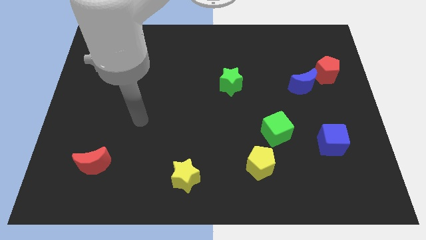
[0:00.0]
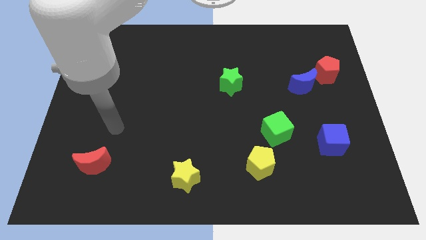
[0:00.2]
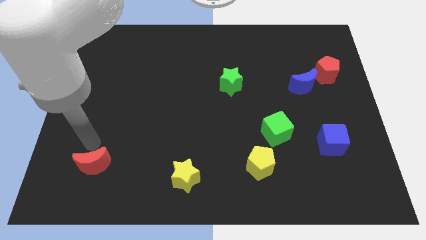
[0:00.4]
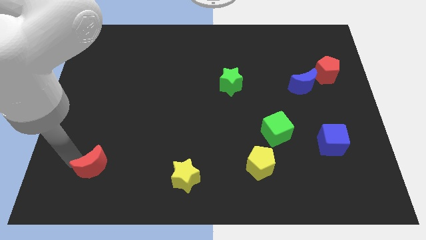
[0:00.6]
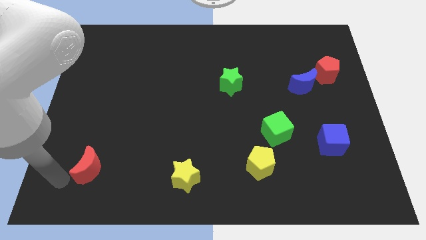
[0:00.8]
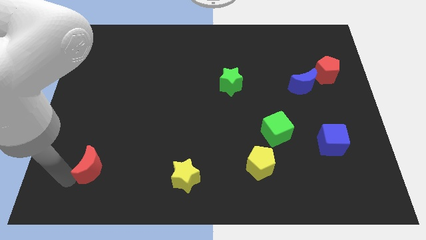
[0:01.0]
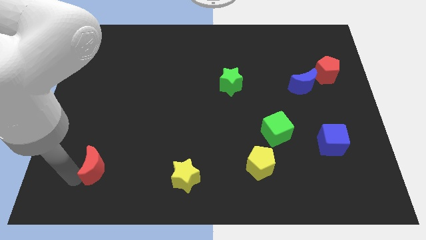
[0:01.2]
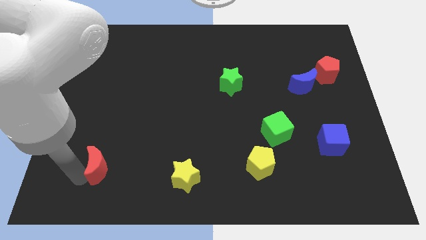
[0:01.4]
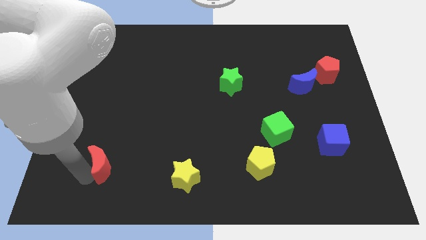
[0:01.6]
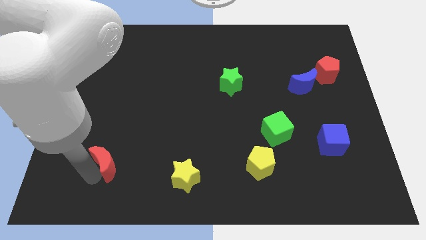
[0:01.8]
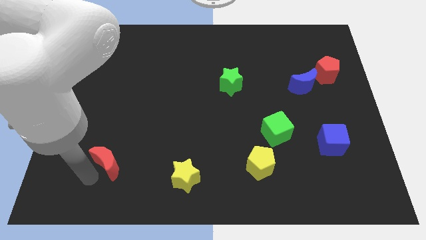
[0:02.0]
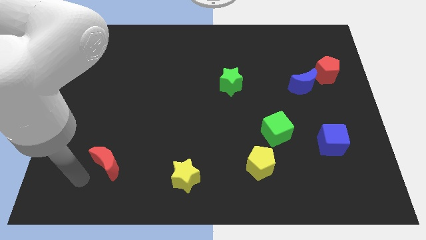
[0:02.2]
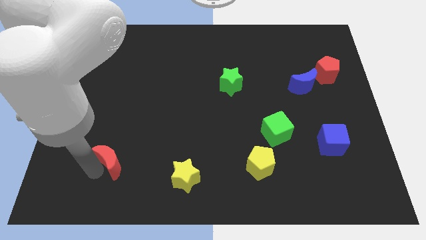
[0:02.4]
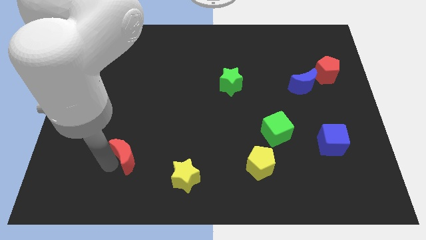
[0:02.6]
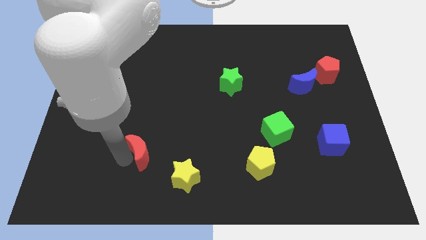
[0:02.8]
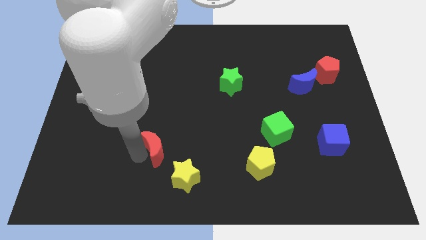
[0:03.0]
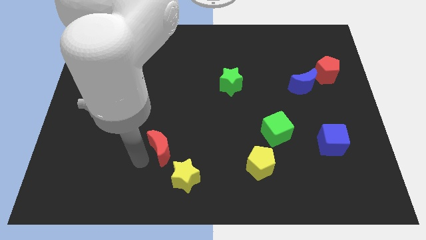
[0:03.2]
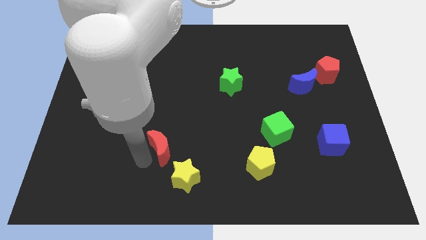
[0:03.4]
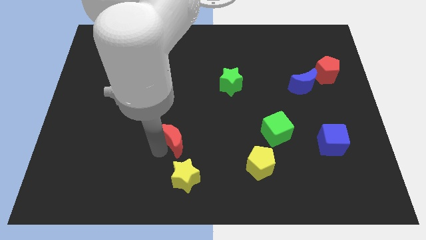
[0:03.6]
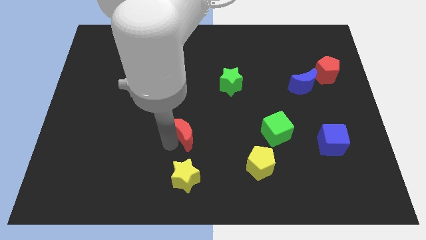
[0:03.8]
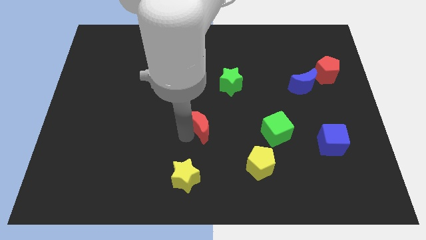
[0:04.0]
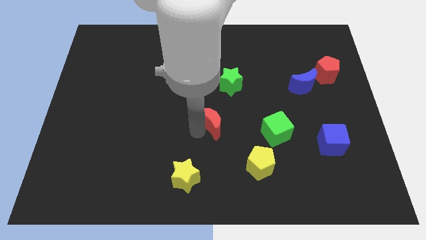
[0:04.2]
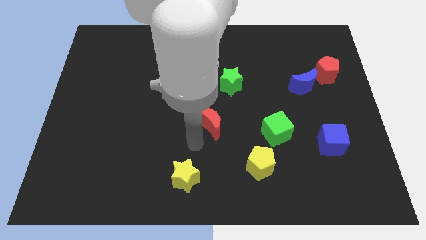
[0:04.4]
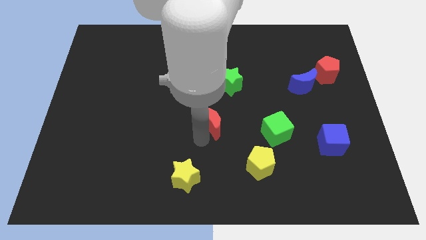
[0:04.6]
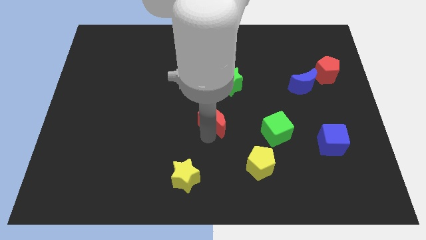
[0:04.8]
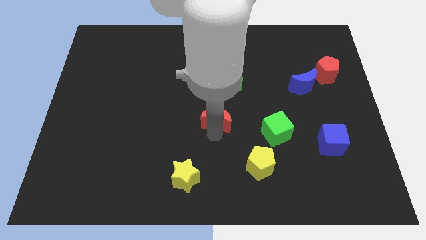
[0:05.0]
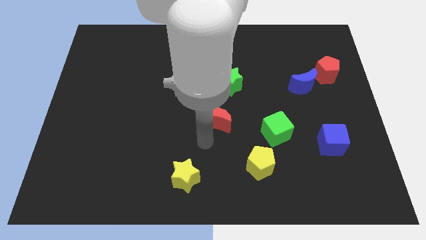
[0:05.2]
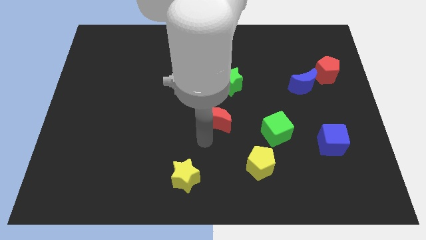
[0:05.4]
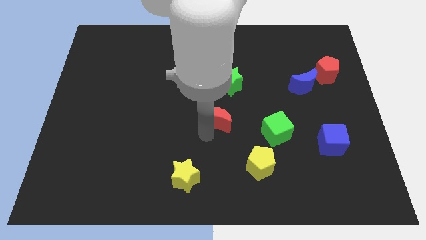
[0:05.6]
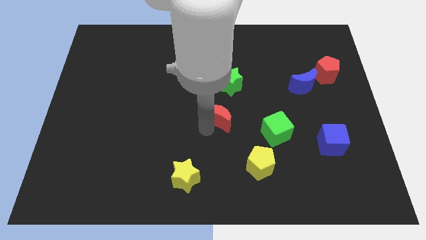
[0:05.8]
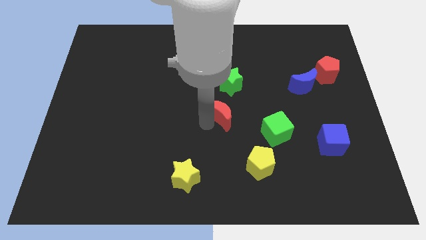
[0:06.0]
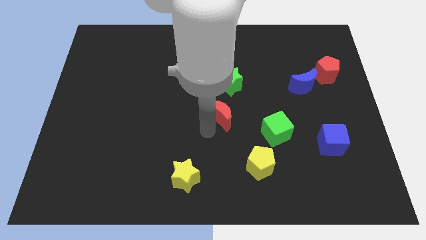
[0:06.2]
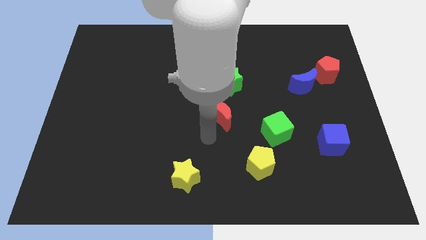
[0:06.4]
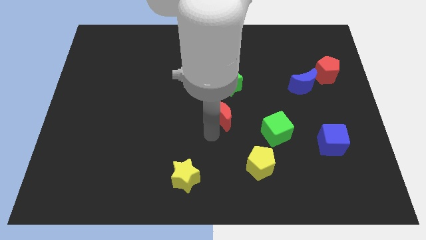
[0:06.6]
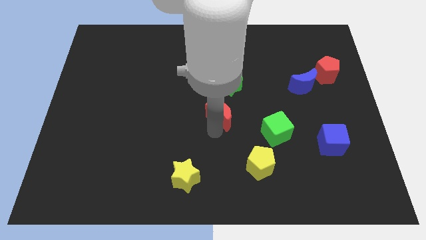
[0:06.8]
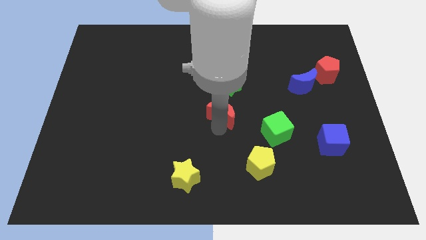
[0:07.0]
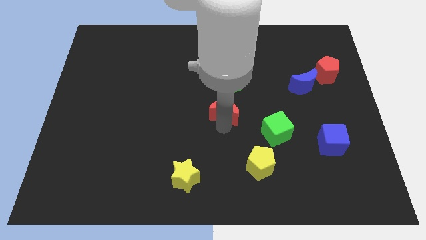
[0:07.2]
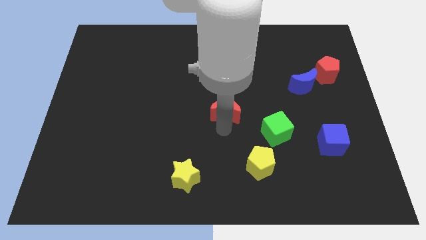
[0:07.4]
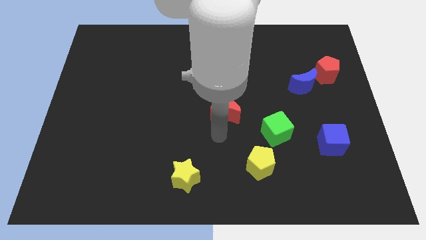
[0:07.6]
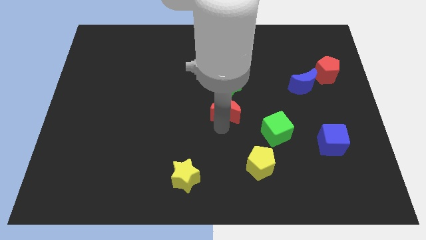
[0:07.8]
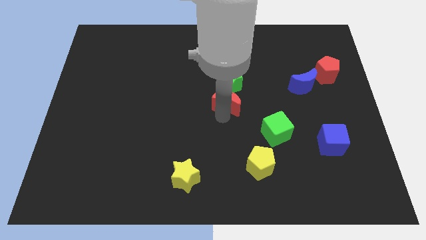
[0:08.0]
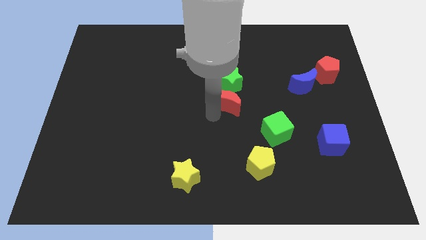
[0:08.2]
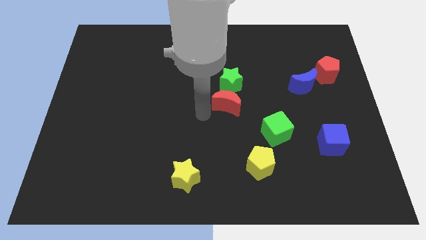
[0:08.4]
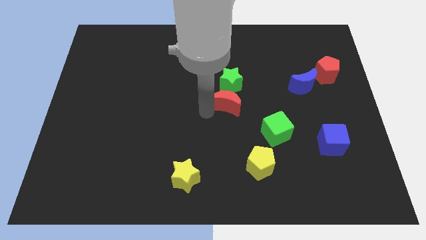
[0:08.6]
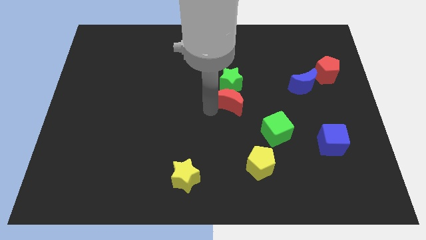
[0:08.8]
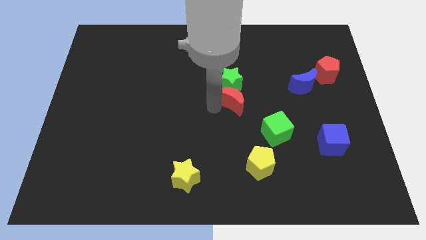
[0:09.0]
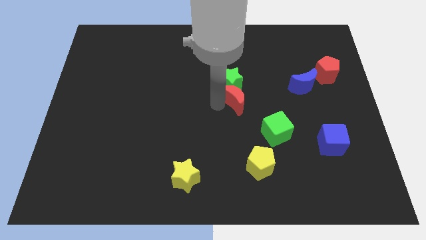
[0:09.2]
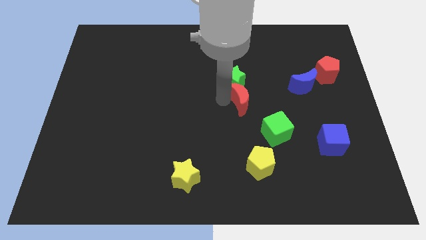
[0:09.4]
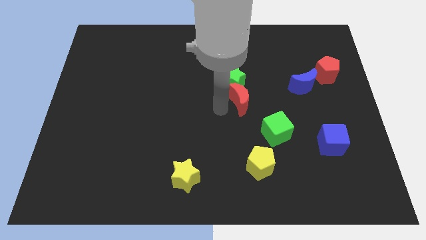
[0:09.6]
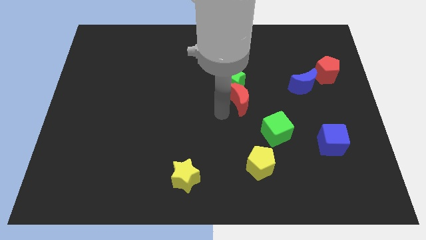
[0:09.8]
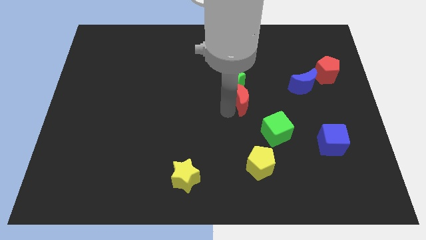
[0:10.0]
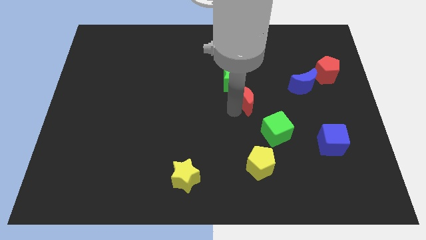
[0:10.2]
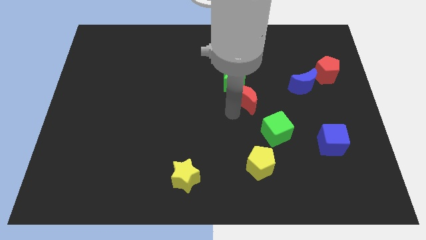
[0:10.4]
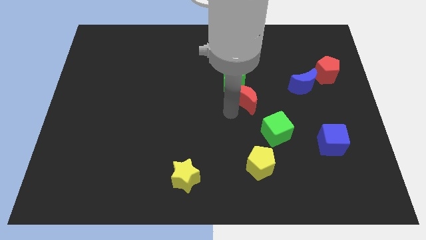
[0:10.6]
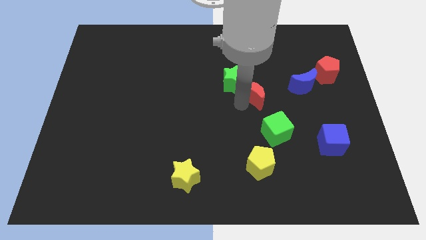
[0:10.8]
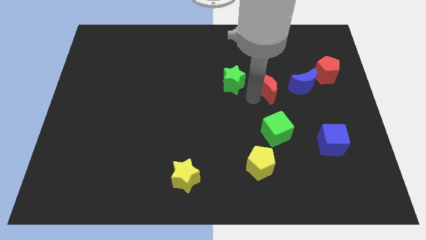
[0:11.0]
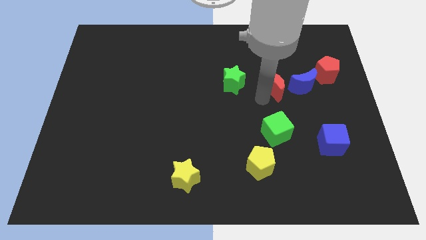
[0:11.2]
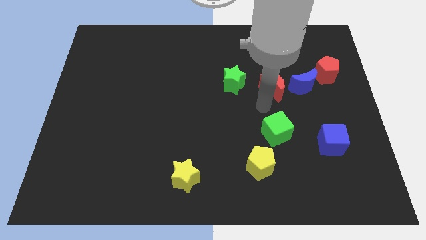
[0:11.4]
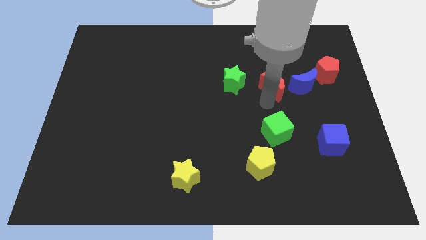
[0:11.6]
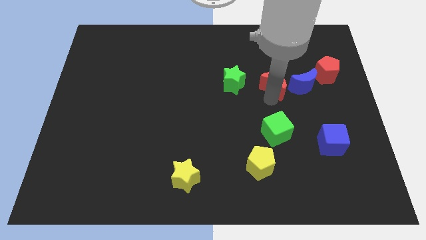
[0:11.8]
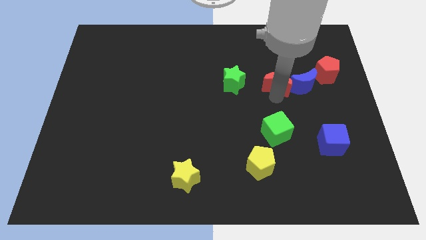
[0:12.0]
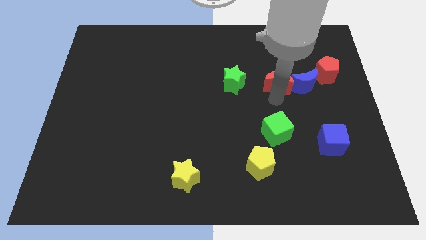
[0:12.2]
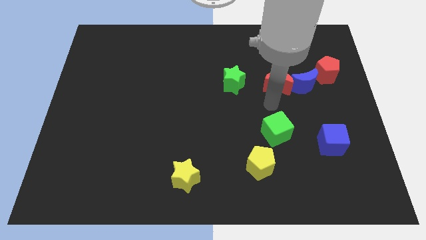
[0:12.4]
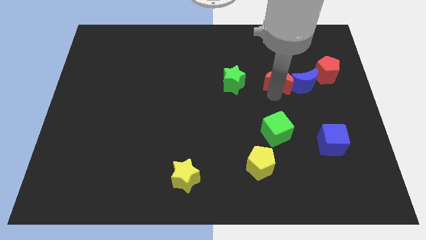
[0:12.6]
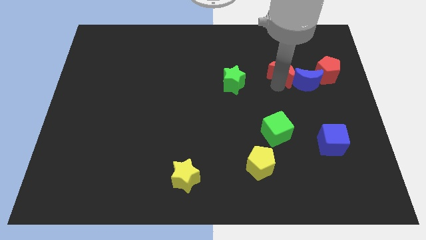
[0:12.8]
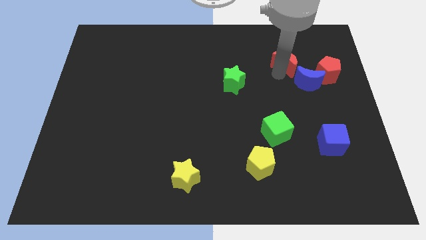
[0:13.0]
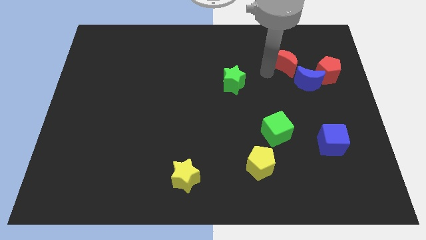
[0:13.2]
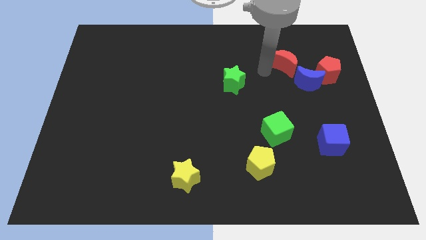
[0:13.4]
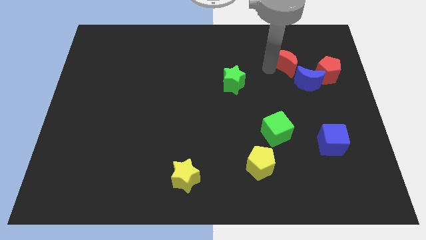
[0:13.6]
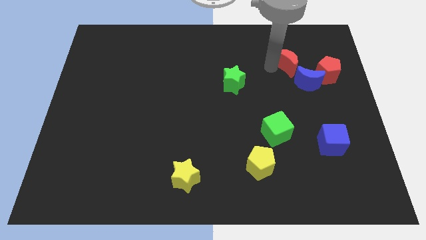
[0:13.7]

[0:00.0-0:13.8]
slide the red moon to the top left of the red pentagon
